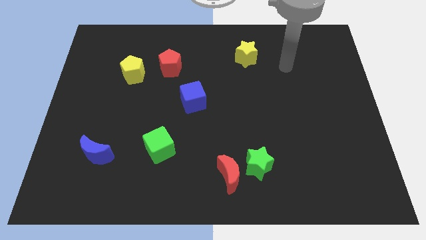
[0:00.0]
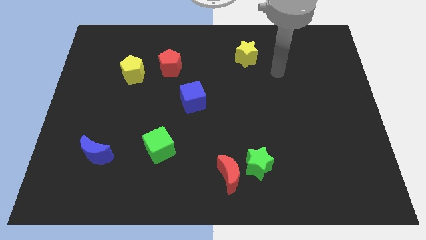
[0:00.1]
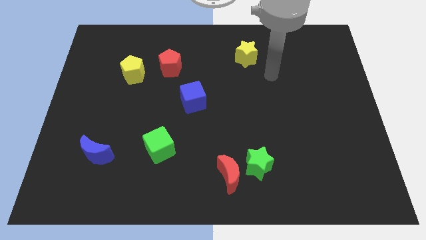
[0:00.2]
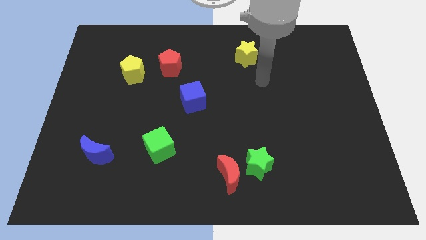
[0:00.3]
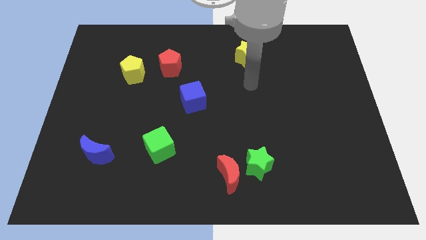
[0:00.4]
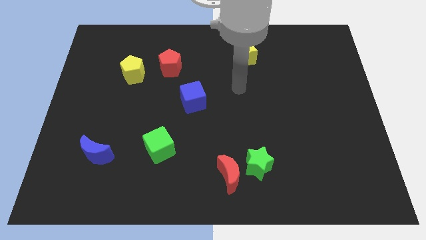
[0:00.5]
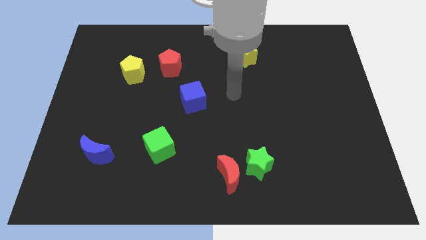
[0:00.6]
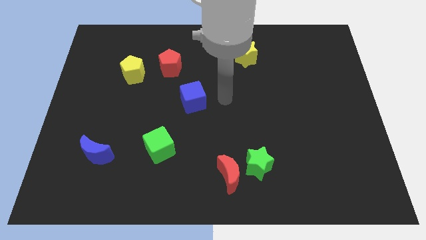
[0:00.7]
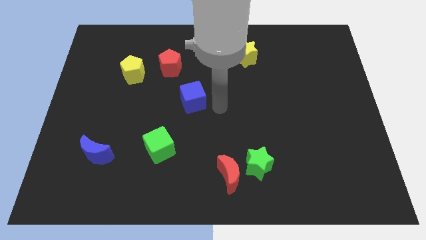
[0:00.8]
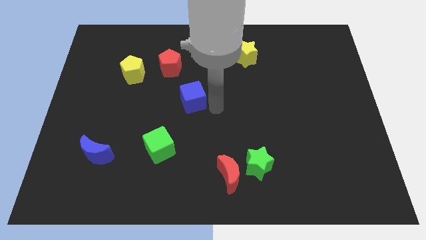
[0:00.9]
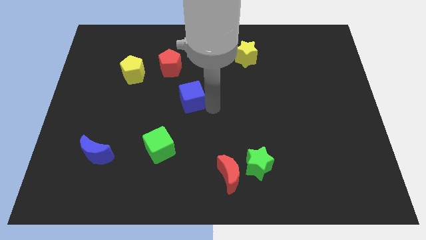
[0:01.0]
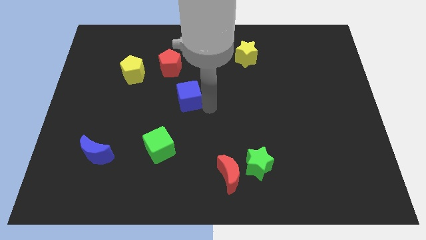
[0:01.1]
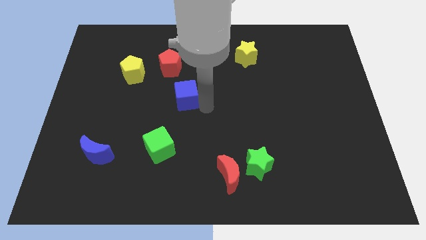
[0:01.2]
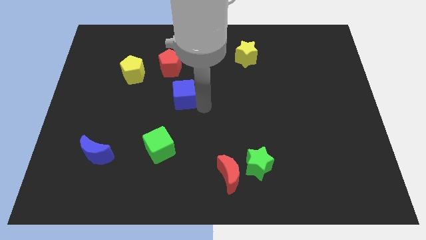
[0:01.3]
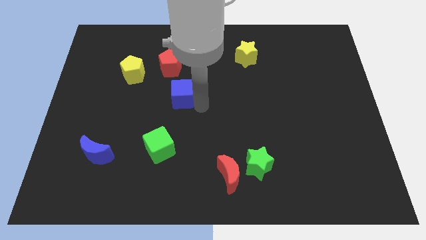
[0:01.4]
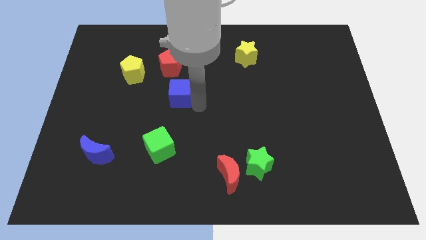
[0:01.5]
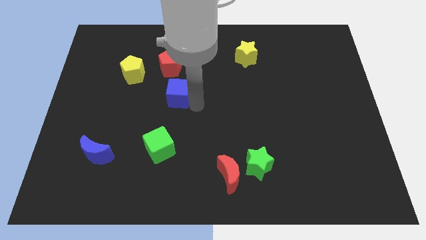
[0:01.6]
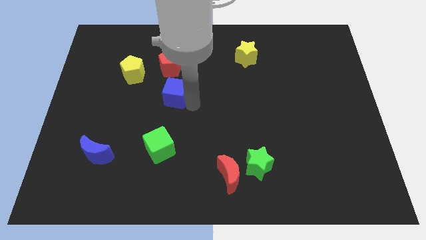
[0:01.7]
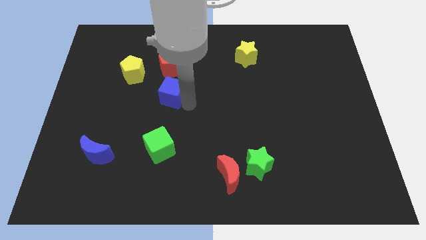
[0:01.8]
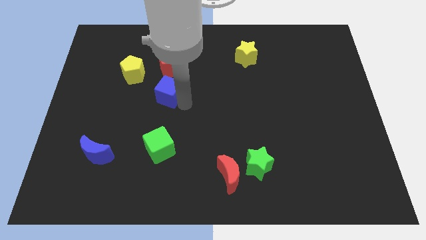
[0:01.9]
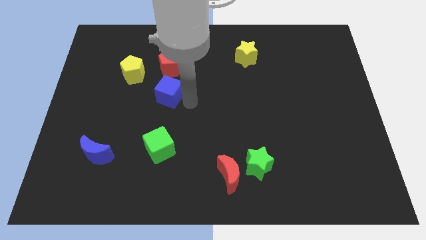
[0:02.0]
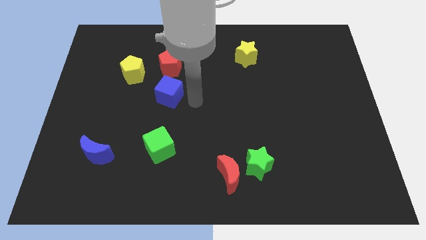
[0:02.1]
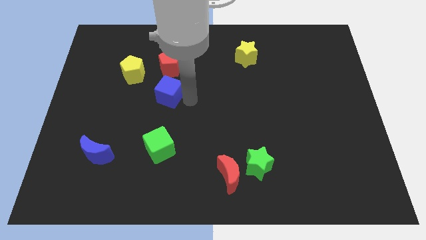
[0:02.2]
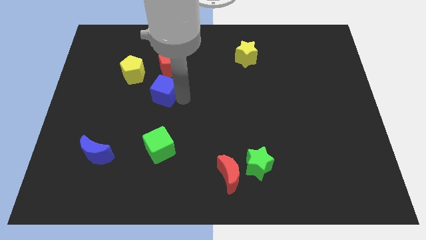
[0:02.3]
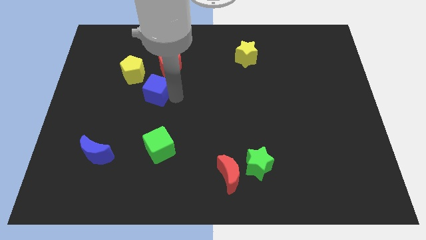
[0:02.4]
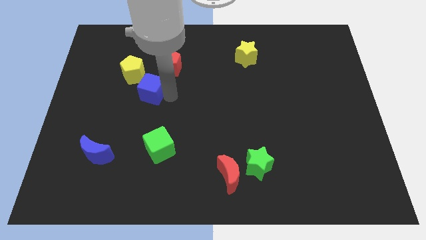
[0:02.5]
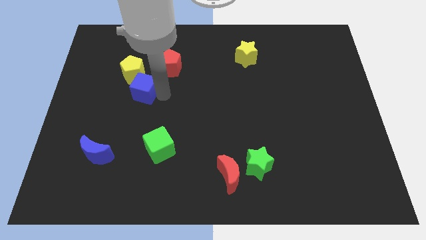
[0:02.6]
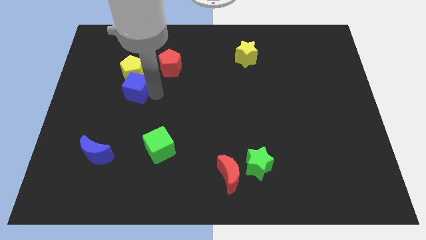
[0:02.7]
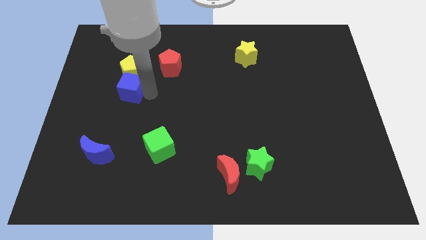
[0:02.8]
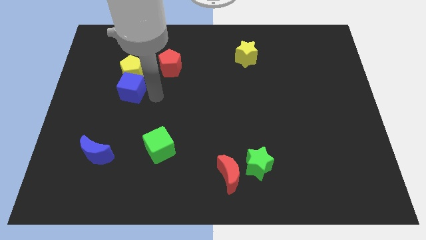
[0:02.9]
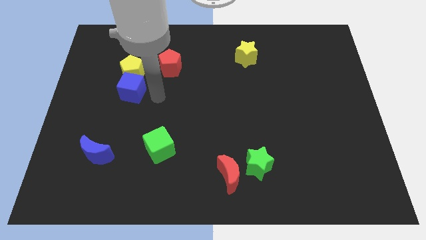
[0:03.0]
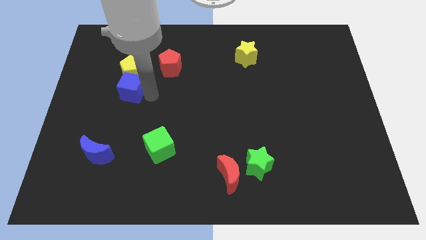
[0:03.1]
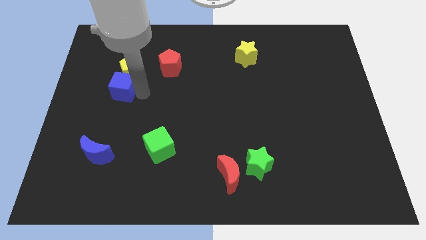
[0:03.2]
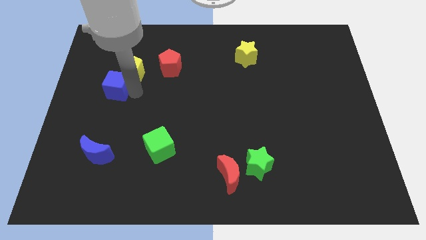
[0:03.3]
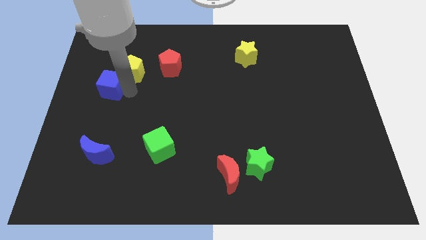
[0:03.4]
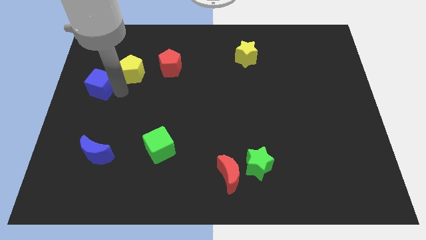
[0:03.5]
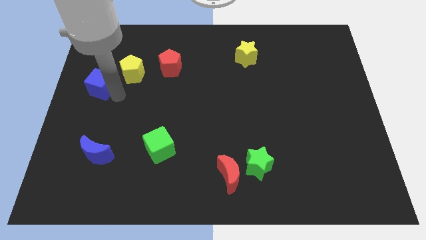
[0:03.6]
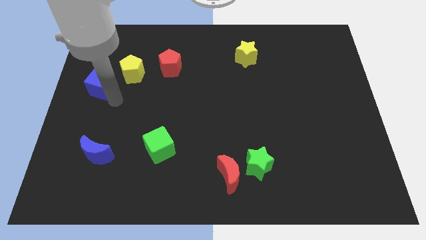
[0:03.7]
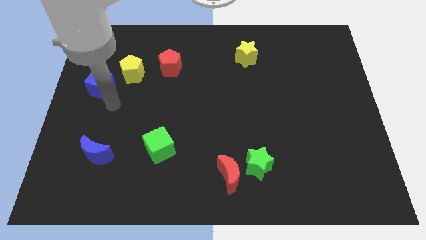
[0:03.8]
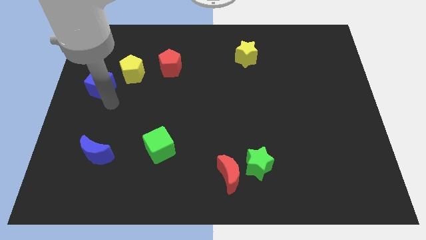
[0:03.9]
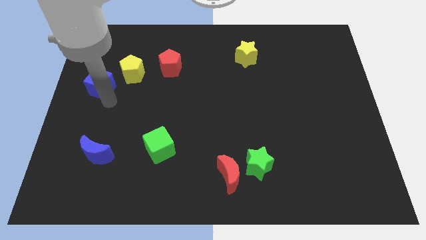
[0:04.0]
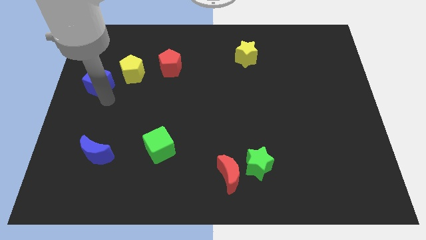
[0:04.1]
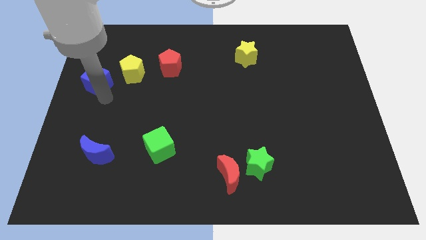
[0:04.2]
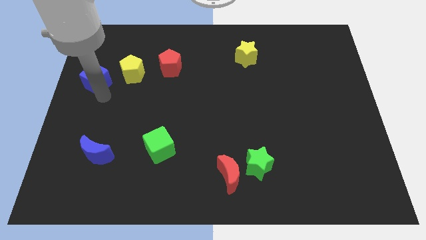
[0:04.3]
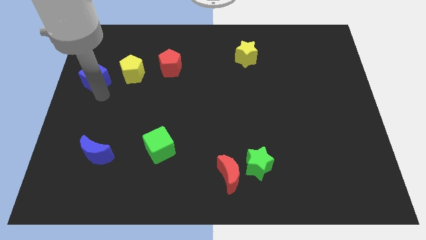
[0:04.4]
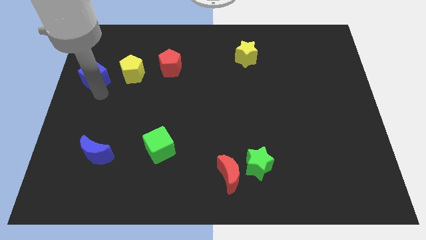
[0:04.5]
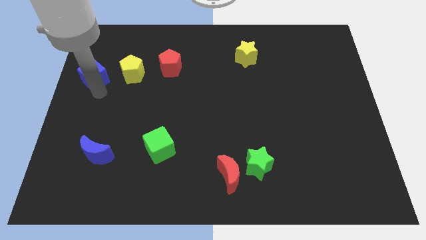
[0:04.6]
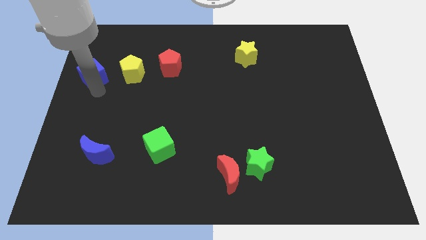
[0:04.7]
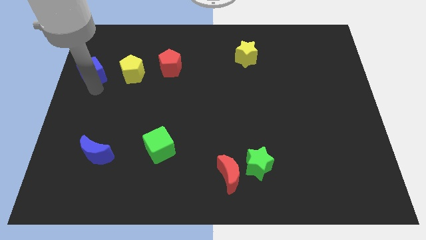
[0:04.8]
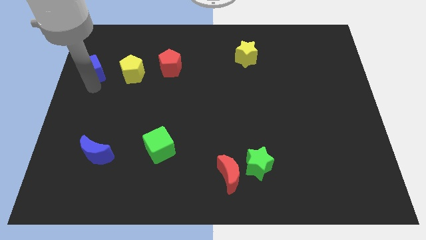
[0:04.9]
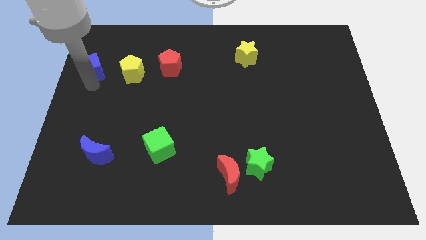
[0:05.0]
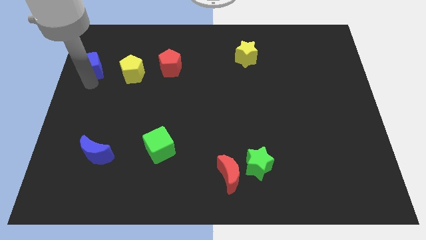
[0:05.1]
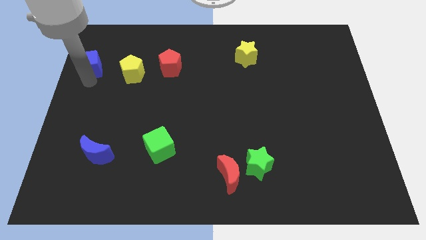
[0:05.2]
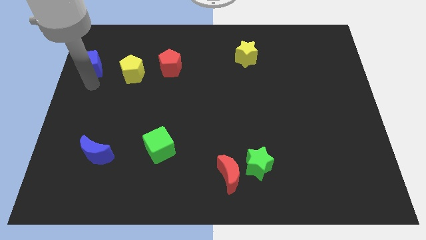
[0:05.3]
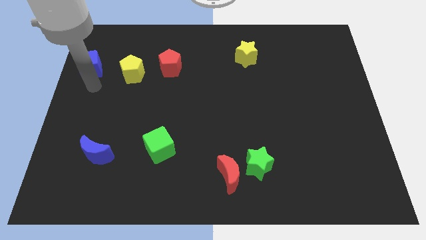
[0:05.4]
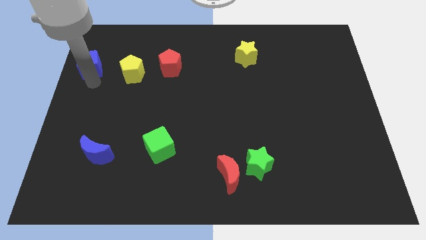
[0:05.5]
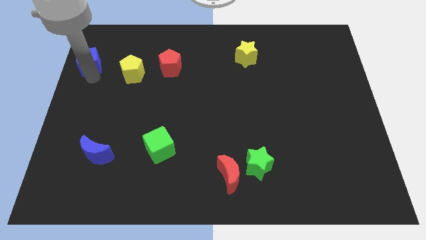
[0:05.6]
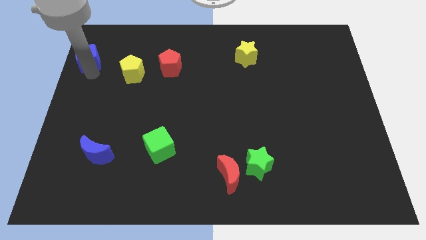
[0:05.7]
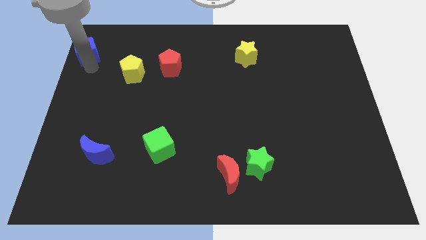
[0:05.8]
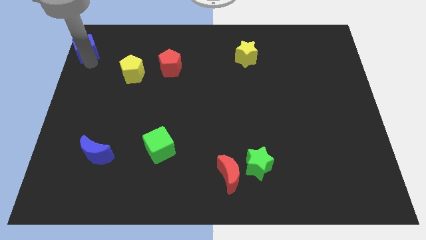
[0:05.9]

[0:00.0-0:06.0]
move the blue cube to the top left

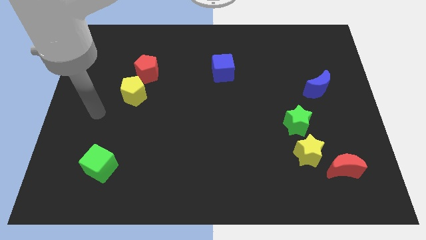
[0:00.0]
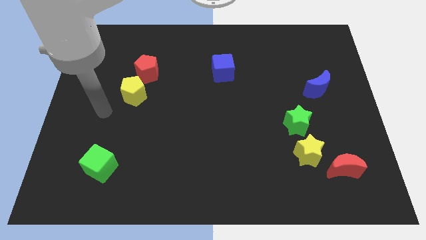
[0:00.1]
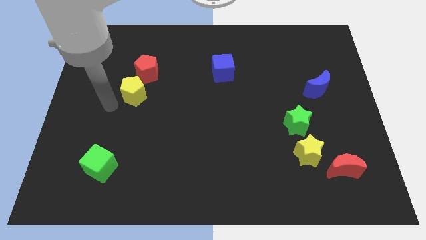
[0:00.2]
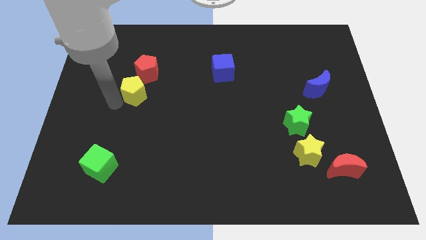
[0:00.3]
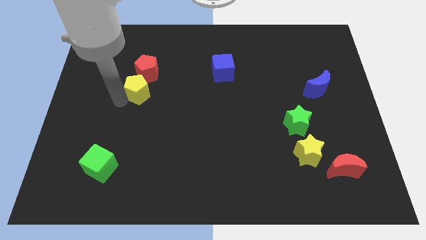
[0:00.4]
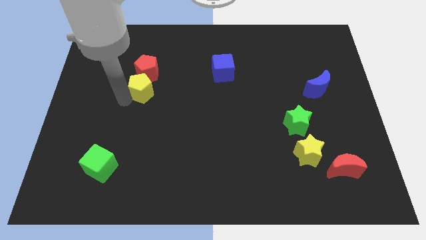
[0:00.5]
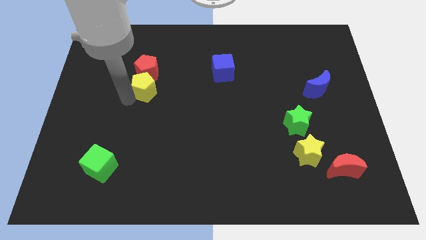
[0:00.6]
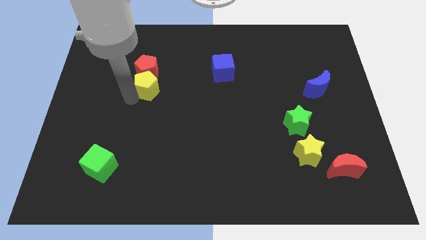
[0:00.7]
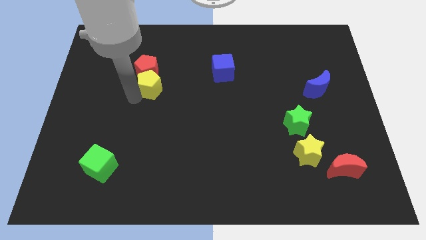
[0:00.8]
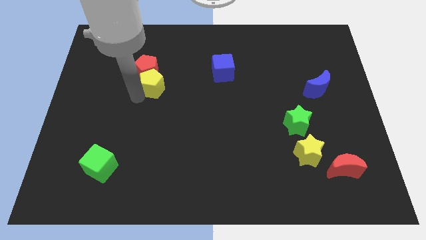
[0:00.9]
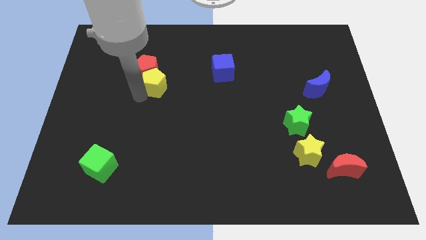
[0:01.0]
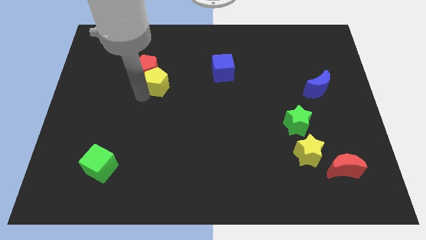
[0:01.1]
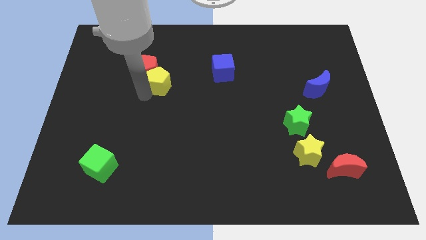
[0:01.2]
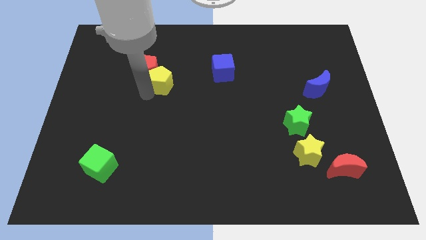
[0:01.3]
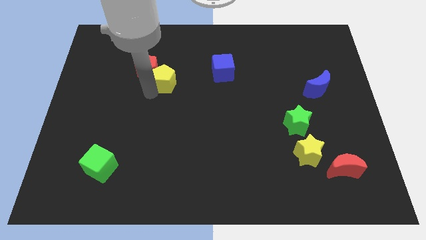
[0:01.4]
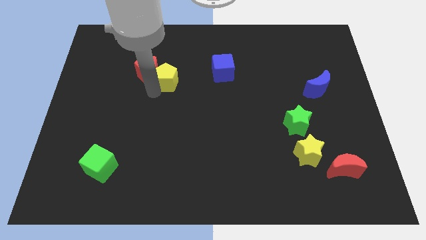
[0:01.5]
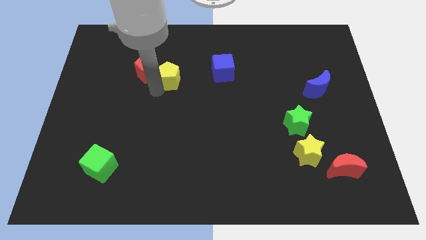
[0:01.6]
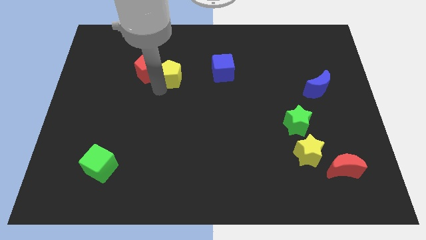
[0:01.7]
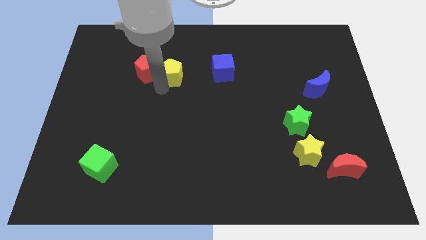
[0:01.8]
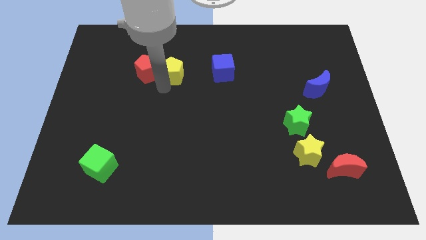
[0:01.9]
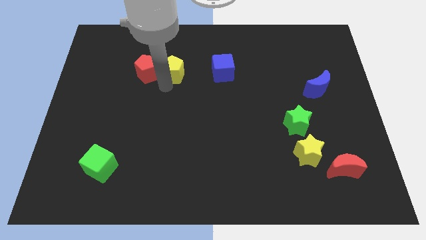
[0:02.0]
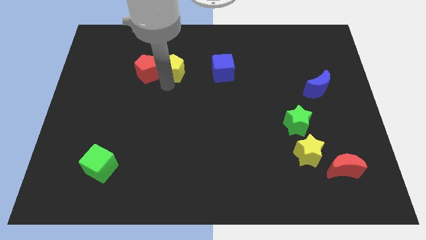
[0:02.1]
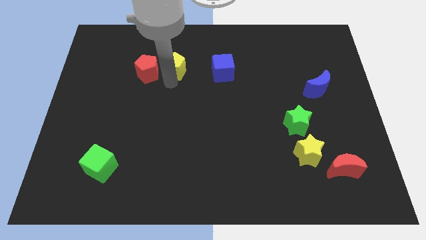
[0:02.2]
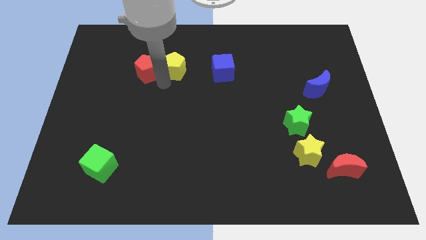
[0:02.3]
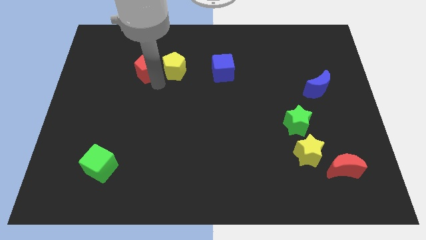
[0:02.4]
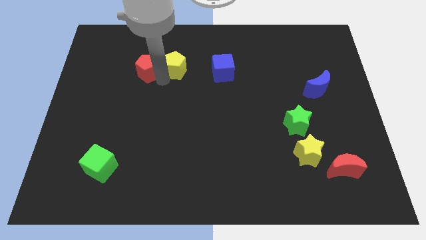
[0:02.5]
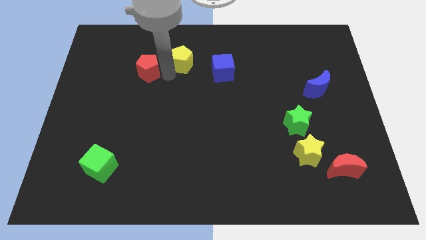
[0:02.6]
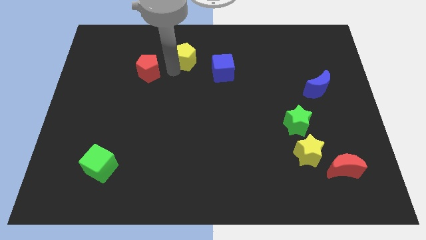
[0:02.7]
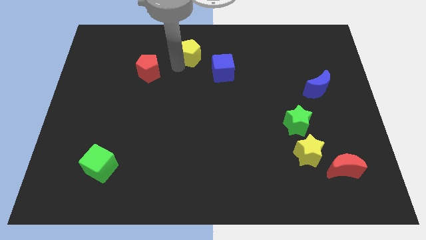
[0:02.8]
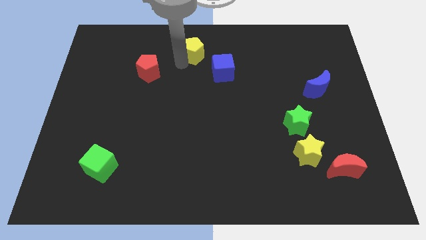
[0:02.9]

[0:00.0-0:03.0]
move the yellow pentagon to the towards your base
